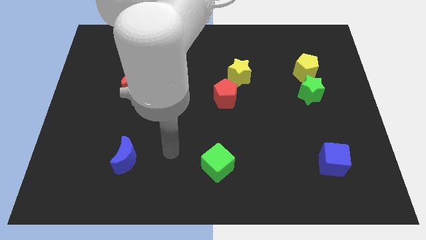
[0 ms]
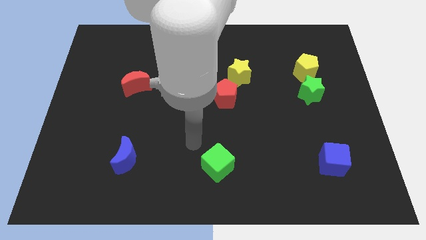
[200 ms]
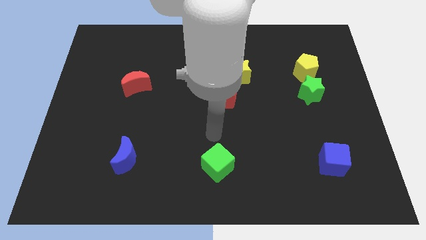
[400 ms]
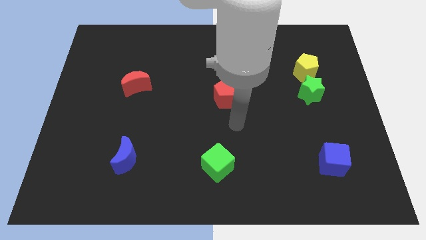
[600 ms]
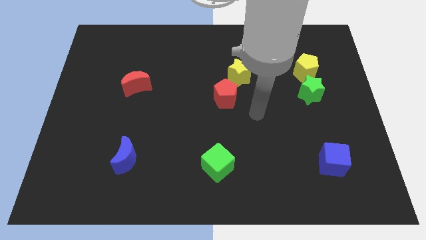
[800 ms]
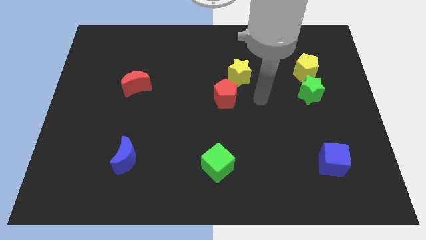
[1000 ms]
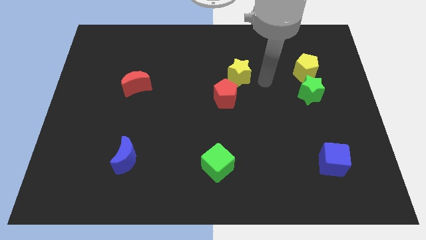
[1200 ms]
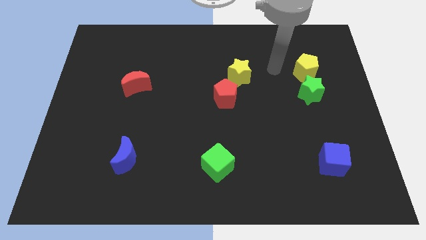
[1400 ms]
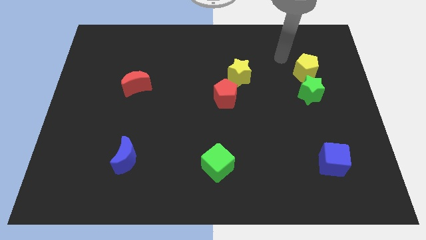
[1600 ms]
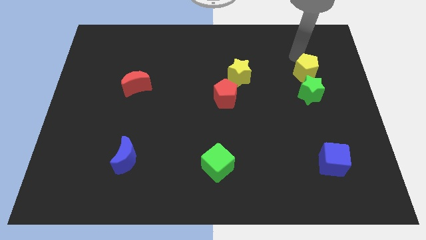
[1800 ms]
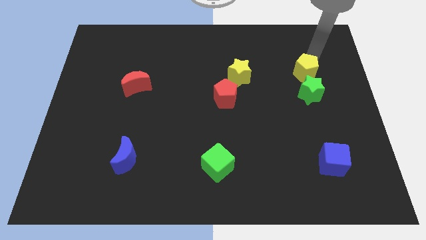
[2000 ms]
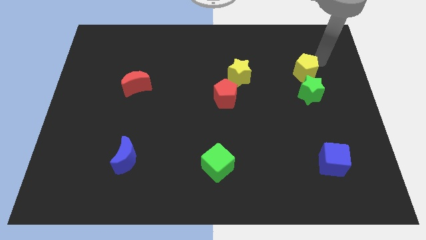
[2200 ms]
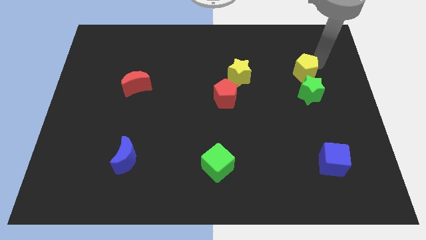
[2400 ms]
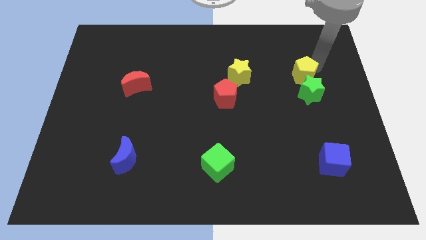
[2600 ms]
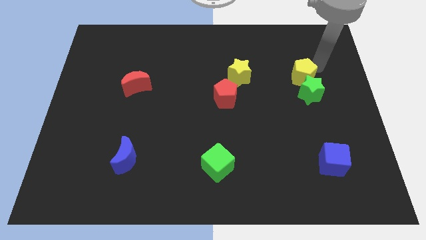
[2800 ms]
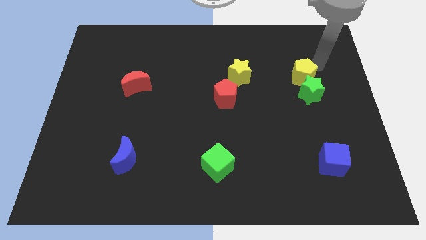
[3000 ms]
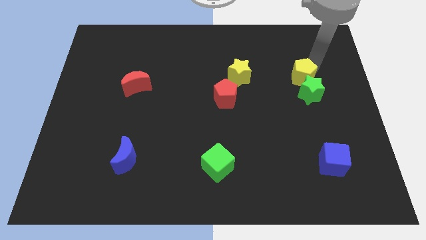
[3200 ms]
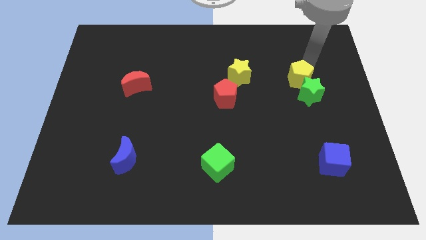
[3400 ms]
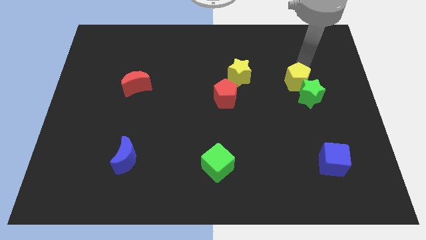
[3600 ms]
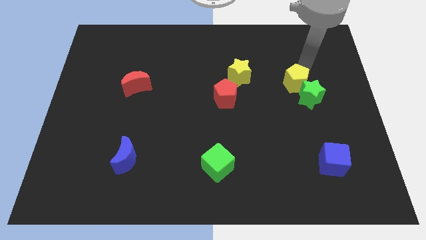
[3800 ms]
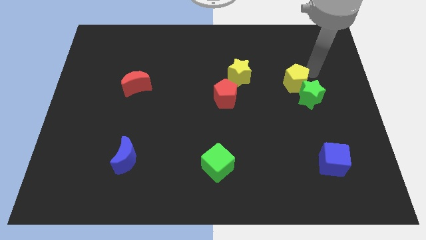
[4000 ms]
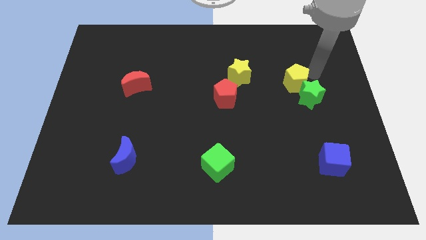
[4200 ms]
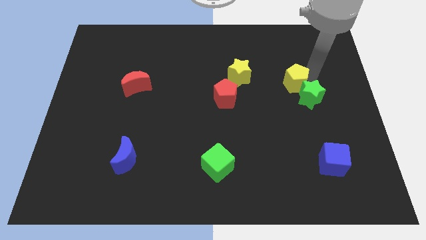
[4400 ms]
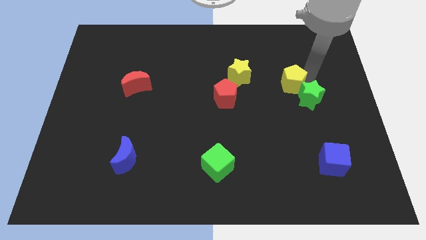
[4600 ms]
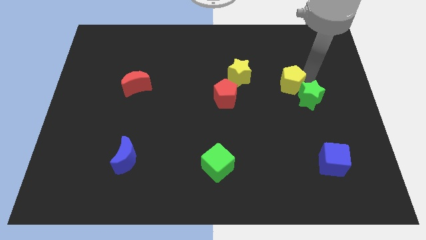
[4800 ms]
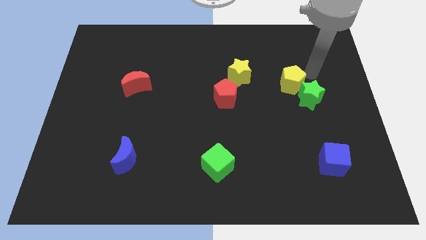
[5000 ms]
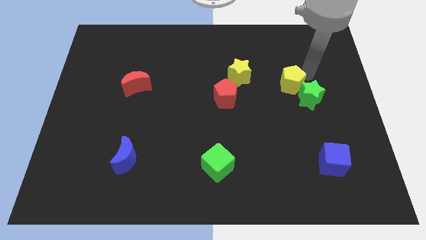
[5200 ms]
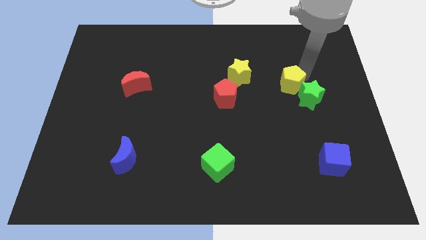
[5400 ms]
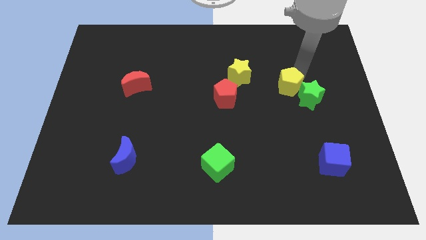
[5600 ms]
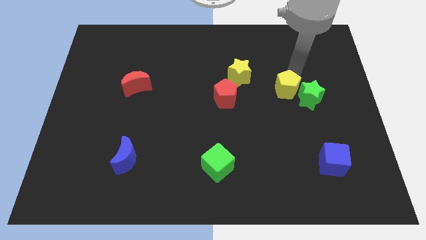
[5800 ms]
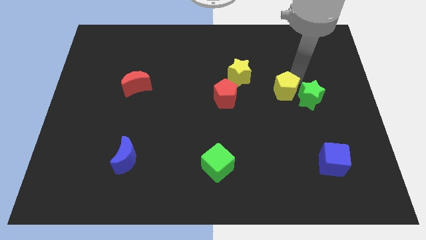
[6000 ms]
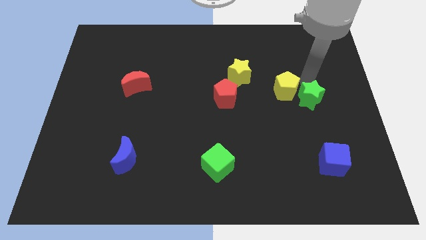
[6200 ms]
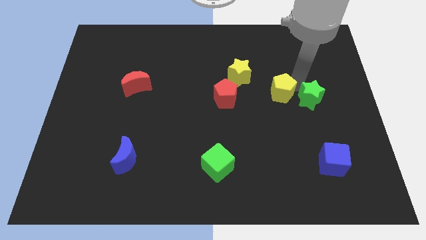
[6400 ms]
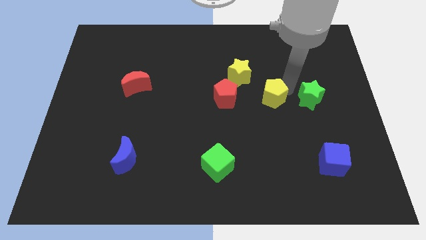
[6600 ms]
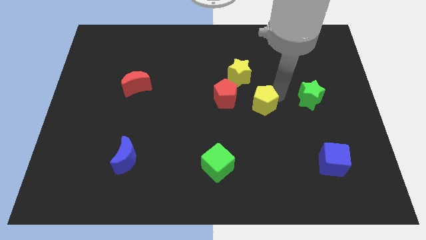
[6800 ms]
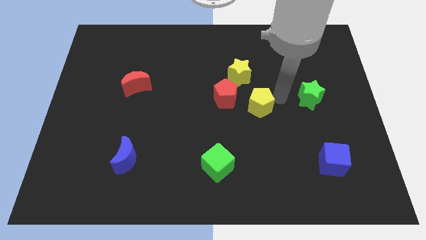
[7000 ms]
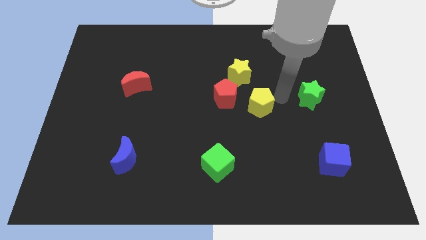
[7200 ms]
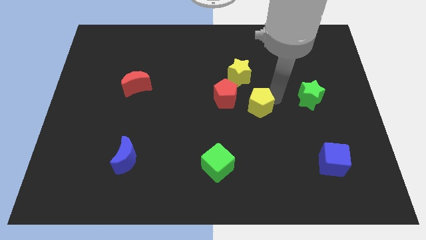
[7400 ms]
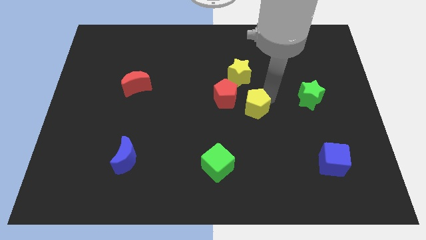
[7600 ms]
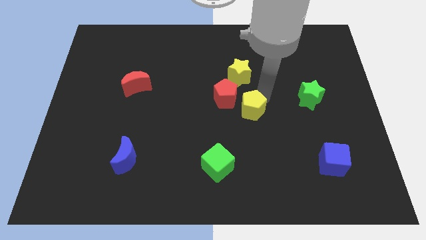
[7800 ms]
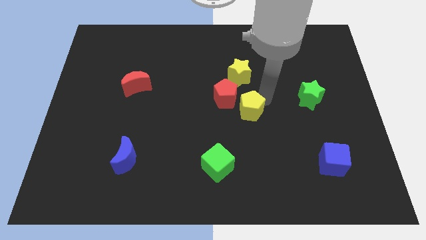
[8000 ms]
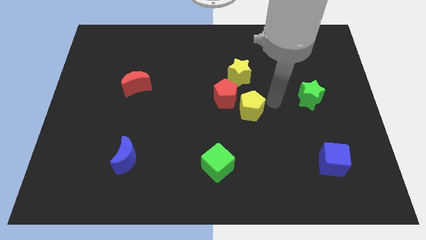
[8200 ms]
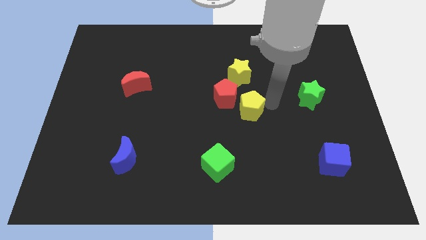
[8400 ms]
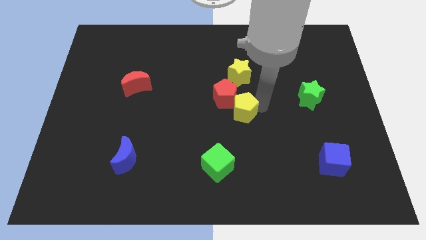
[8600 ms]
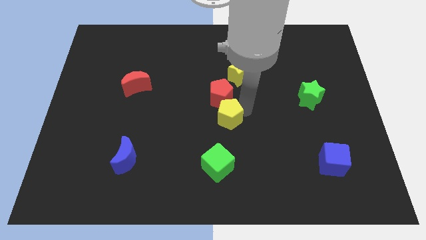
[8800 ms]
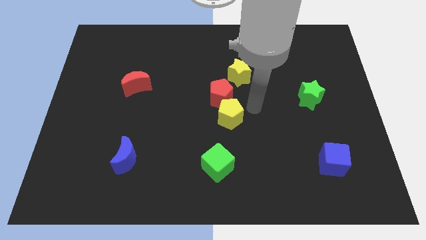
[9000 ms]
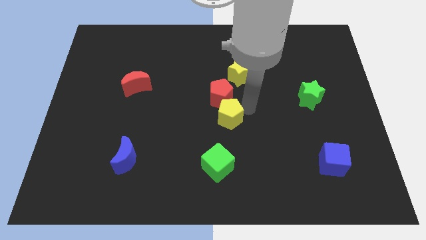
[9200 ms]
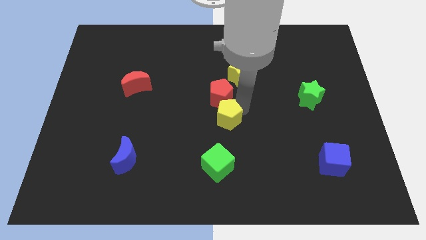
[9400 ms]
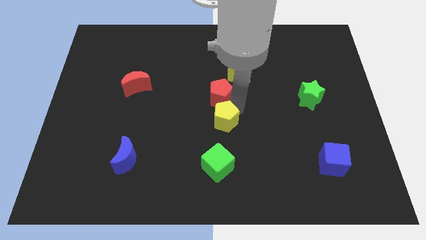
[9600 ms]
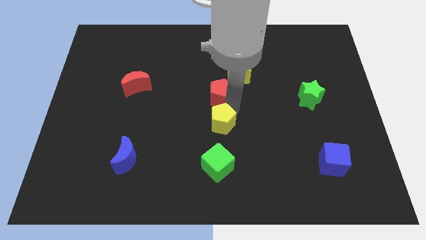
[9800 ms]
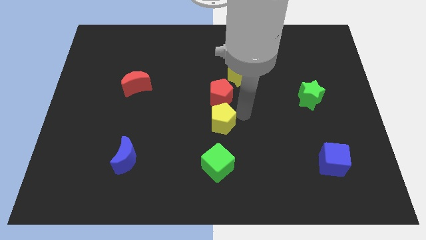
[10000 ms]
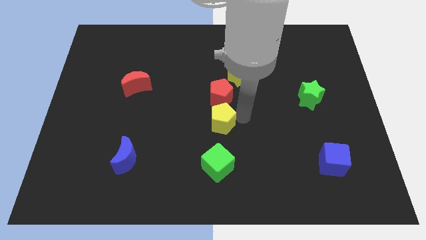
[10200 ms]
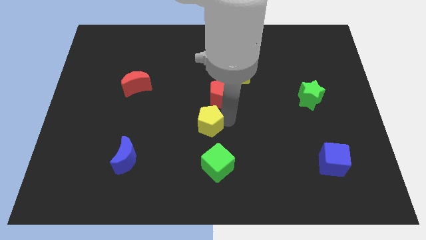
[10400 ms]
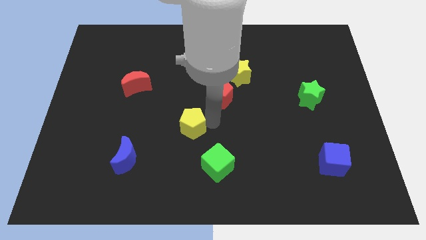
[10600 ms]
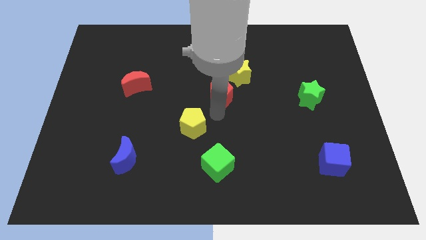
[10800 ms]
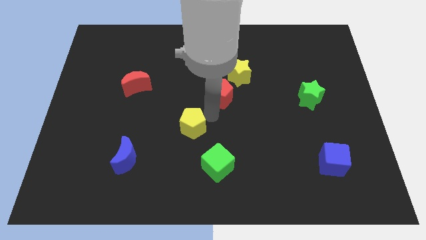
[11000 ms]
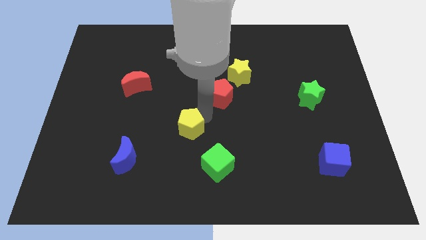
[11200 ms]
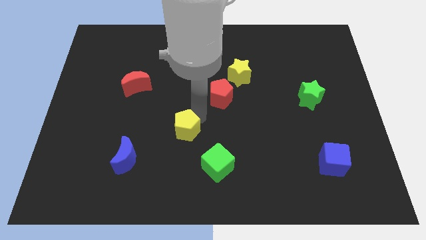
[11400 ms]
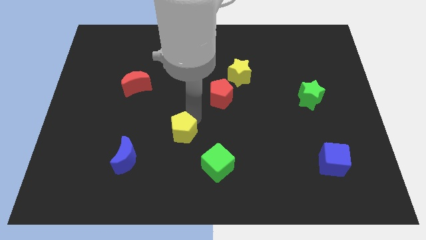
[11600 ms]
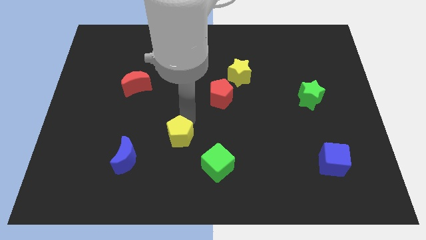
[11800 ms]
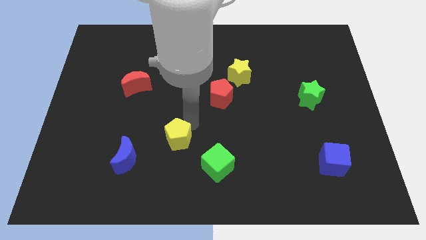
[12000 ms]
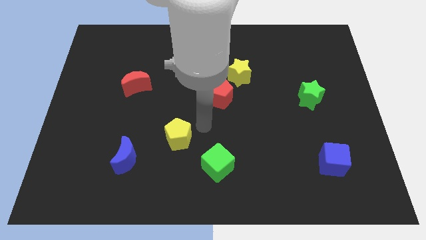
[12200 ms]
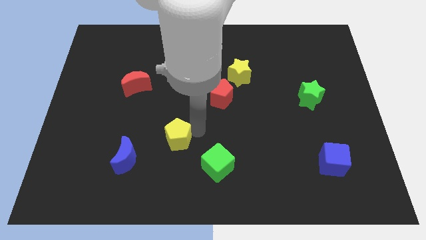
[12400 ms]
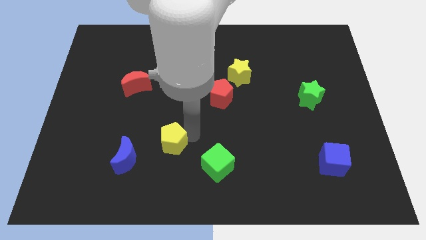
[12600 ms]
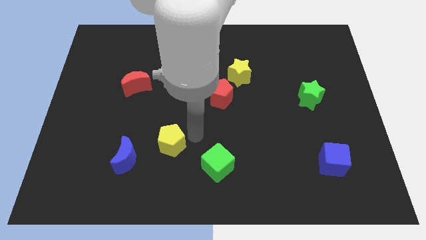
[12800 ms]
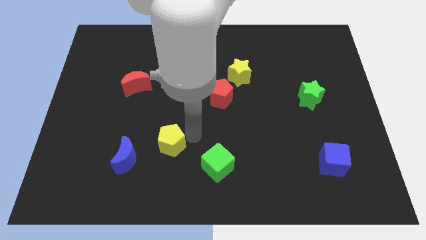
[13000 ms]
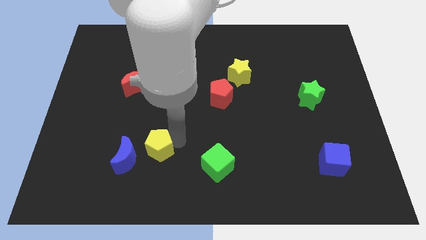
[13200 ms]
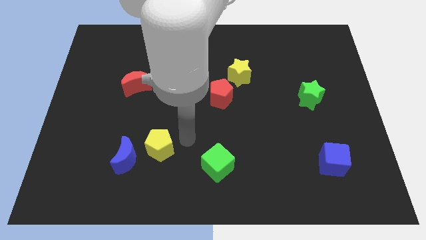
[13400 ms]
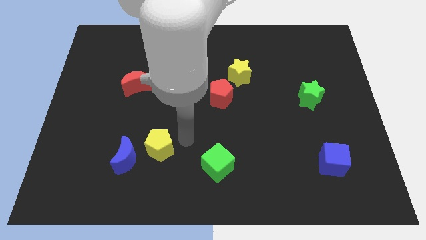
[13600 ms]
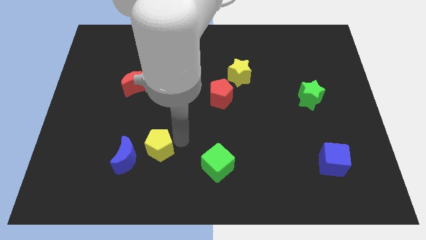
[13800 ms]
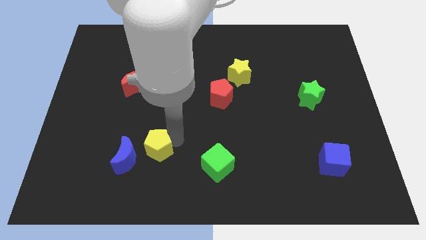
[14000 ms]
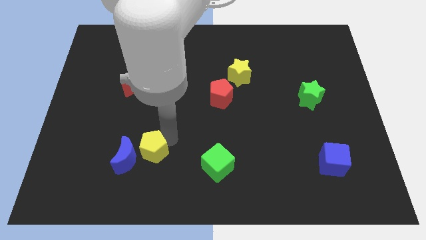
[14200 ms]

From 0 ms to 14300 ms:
push the yellow pentagon next to the blue moon
